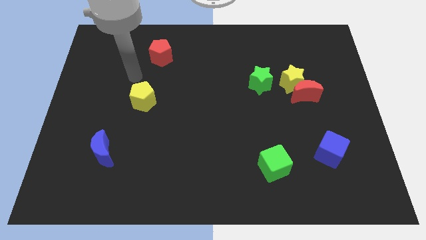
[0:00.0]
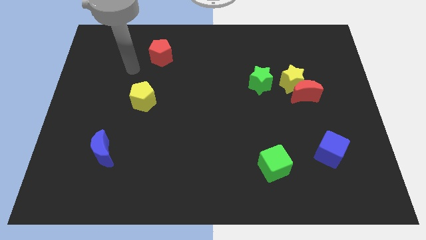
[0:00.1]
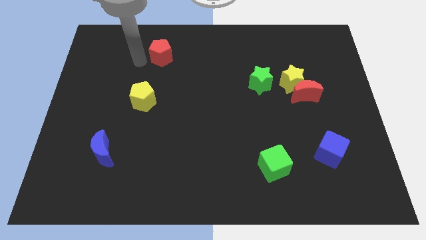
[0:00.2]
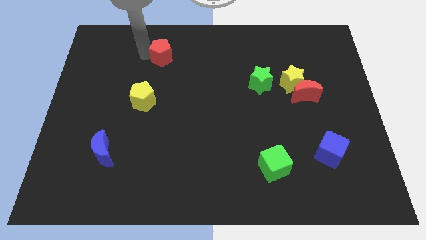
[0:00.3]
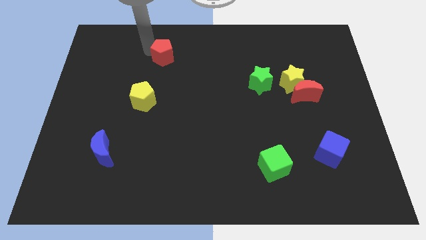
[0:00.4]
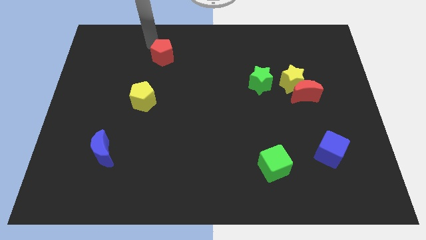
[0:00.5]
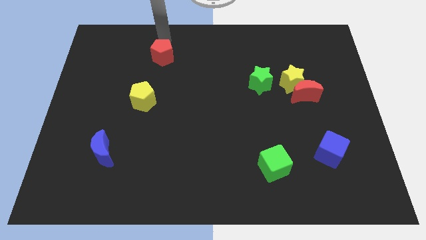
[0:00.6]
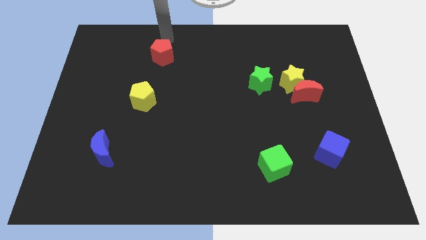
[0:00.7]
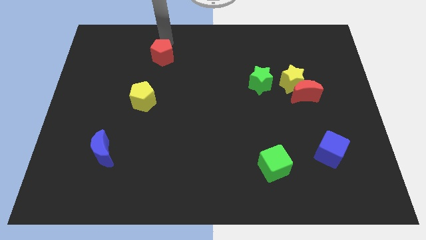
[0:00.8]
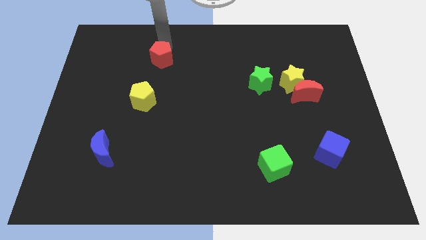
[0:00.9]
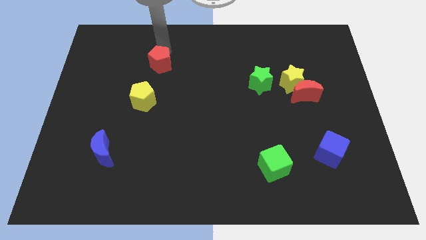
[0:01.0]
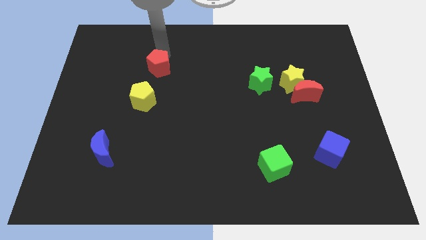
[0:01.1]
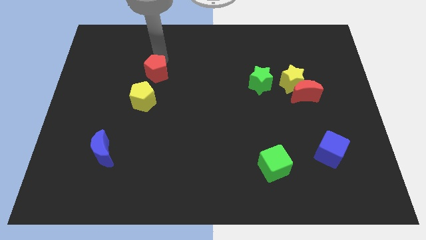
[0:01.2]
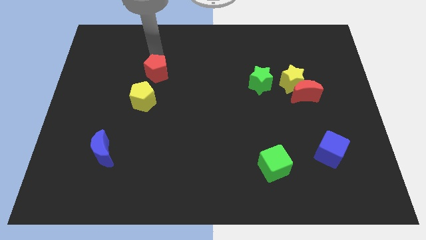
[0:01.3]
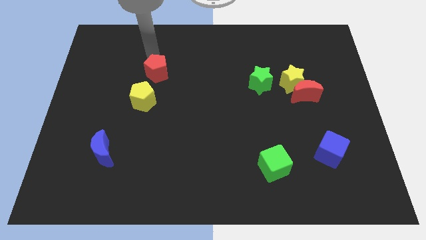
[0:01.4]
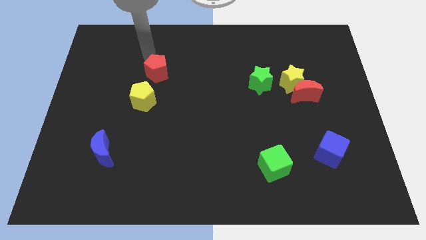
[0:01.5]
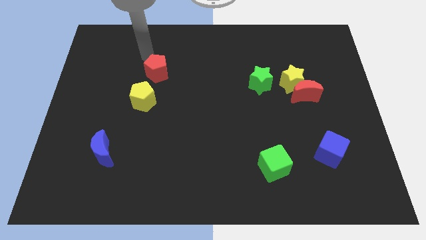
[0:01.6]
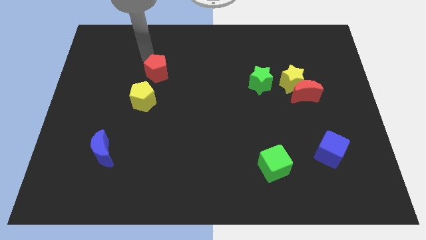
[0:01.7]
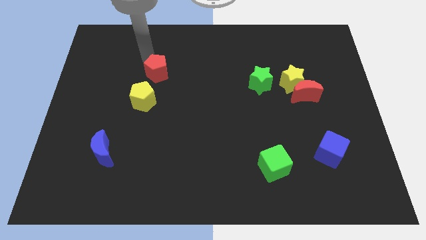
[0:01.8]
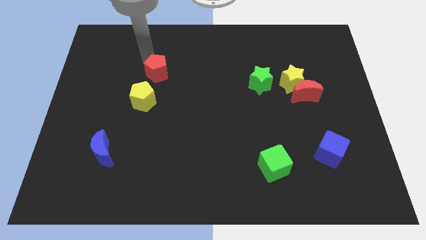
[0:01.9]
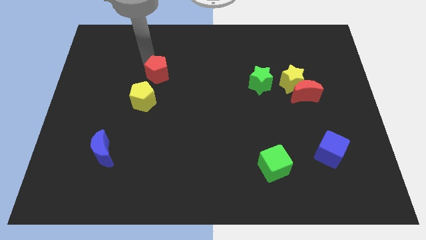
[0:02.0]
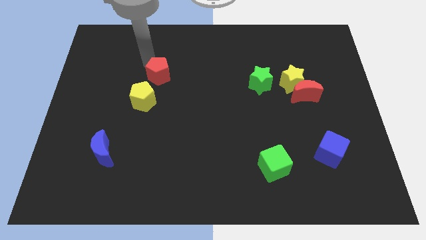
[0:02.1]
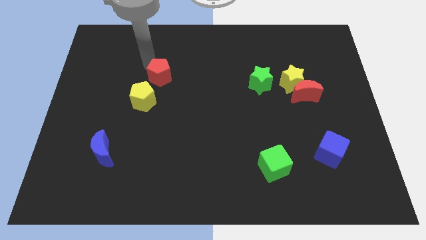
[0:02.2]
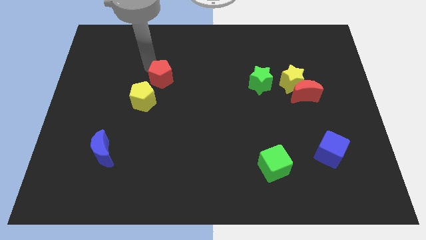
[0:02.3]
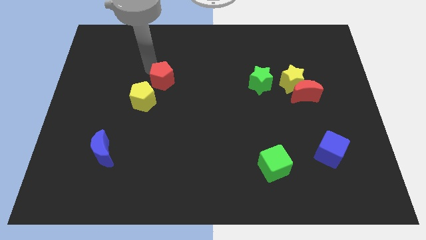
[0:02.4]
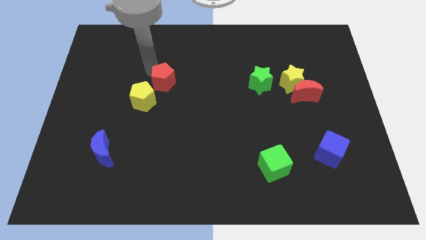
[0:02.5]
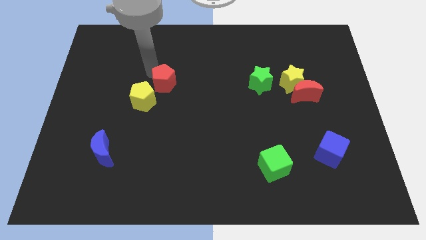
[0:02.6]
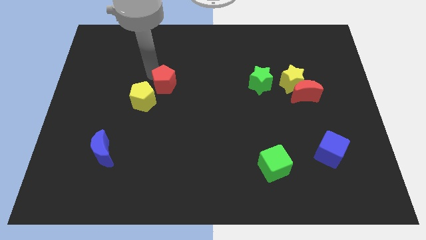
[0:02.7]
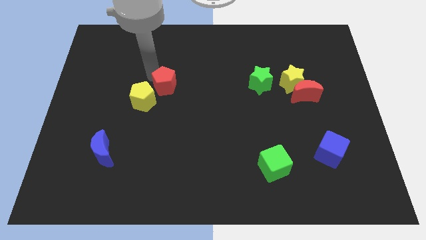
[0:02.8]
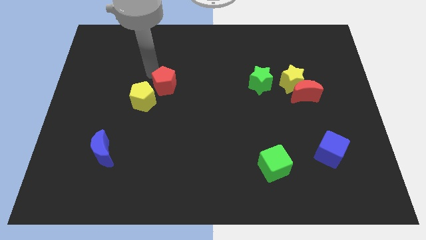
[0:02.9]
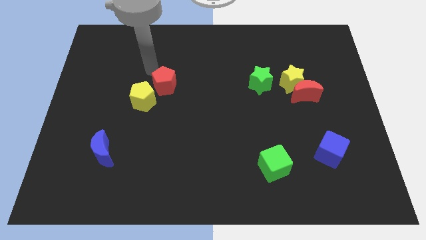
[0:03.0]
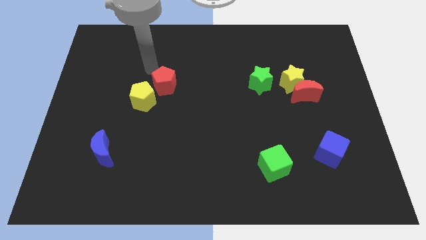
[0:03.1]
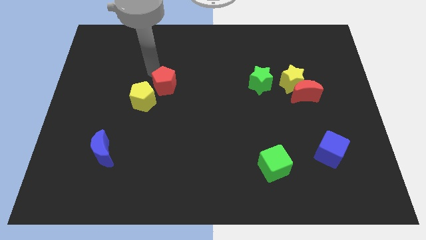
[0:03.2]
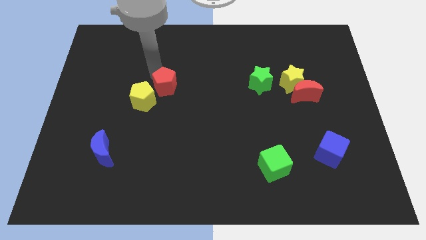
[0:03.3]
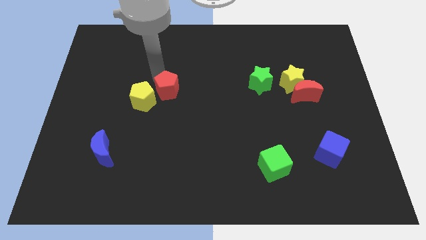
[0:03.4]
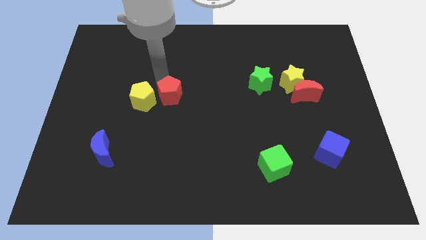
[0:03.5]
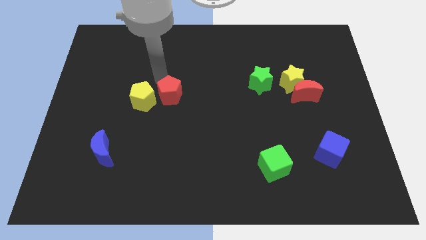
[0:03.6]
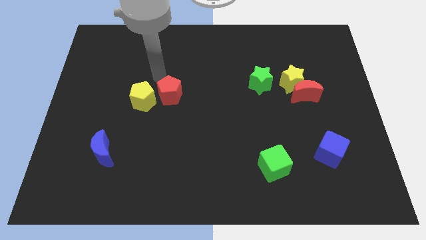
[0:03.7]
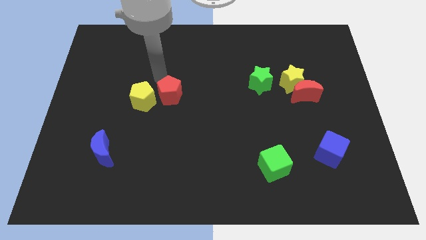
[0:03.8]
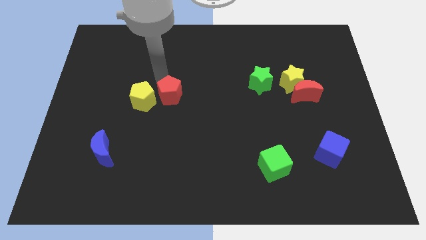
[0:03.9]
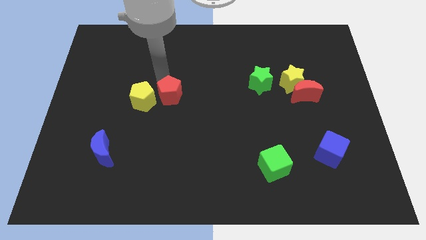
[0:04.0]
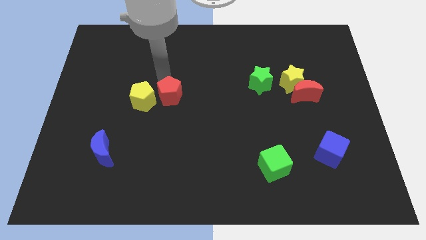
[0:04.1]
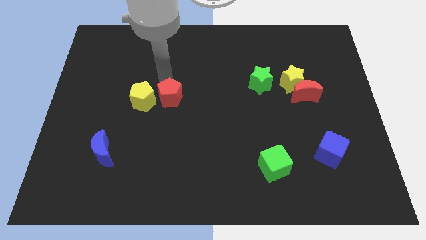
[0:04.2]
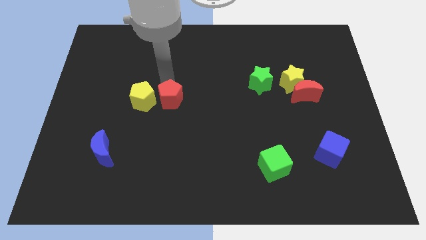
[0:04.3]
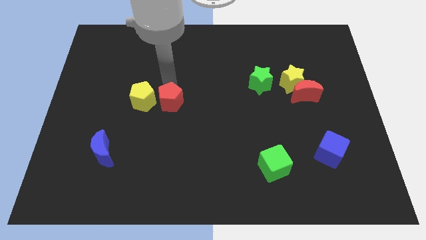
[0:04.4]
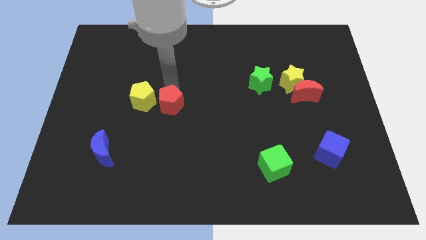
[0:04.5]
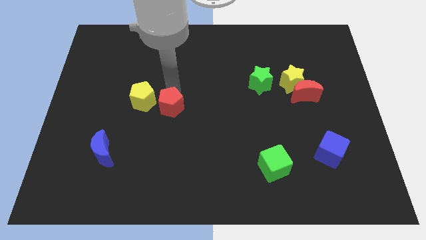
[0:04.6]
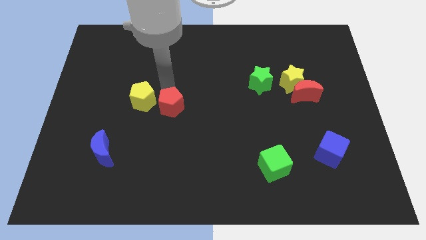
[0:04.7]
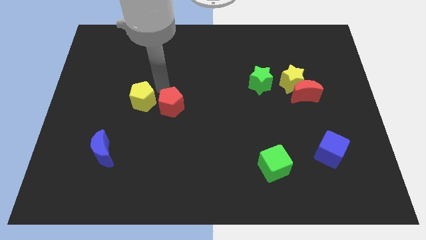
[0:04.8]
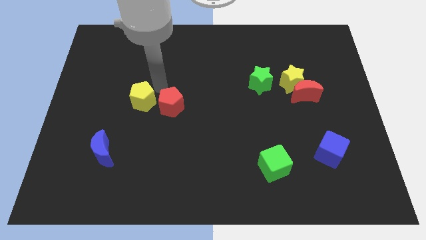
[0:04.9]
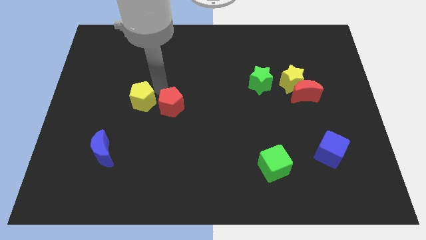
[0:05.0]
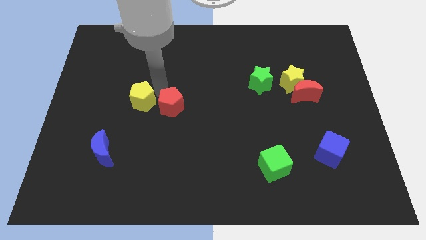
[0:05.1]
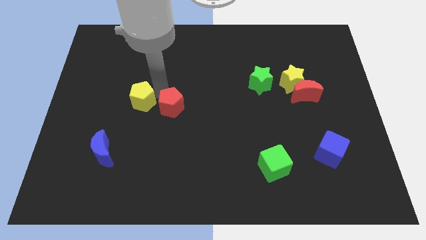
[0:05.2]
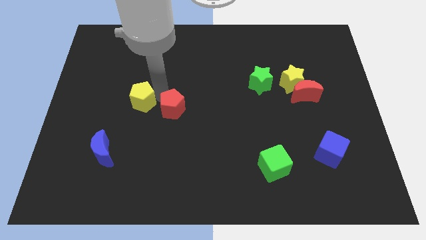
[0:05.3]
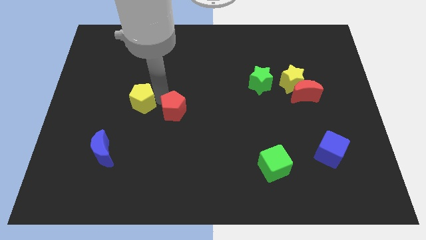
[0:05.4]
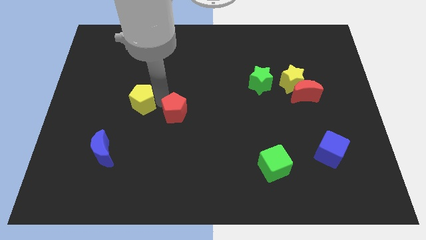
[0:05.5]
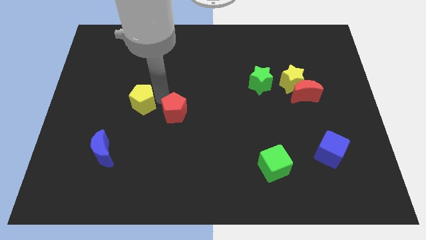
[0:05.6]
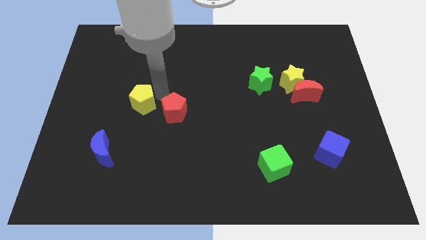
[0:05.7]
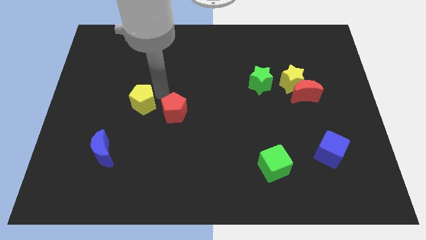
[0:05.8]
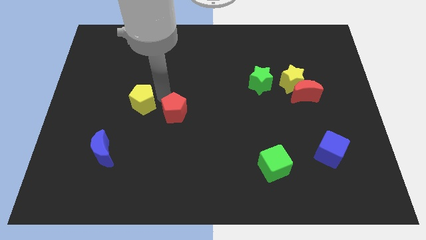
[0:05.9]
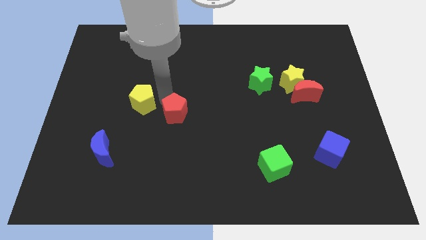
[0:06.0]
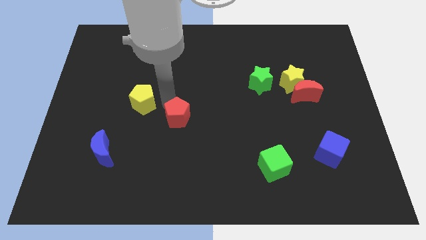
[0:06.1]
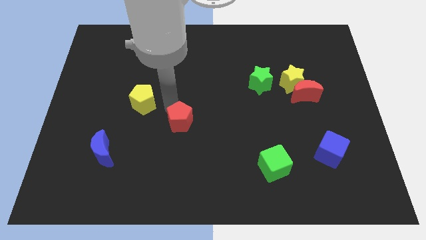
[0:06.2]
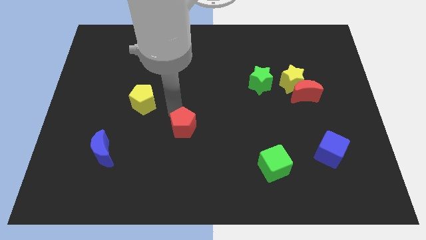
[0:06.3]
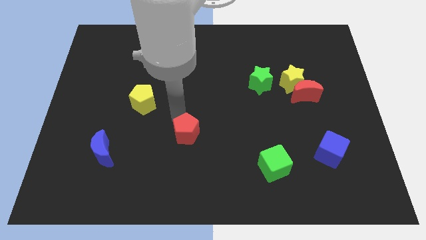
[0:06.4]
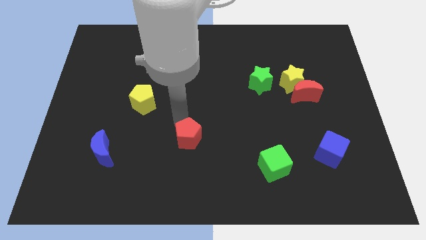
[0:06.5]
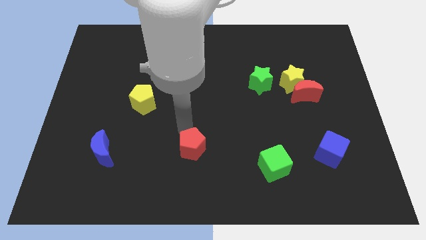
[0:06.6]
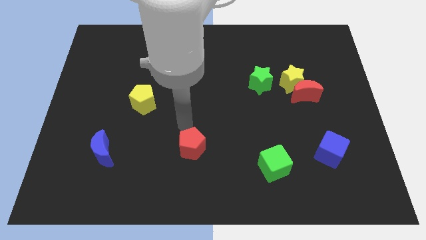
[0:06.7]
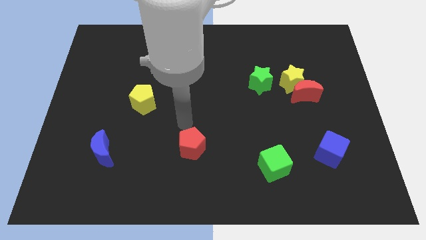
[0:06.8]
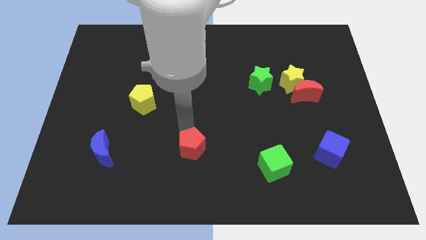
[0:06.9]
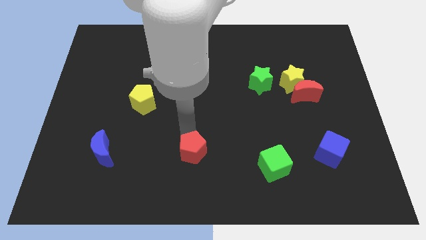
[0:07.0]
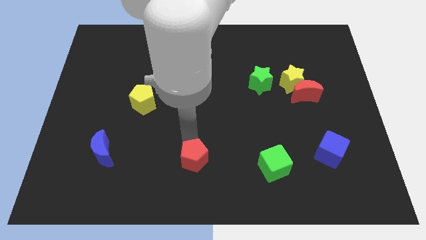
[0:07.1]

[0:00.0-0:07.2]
move the red pentagon to the bottom side
